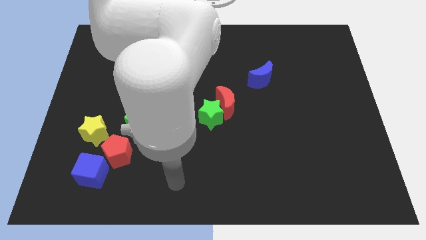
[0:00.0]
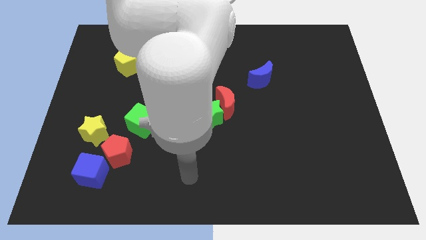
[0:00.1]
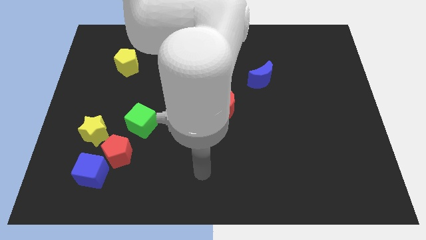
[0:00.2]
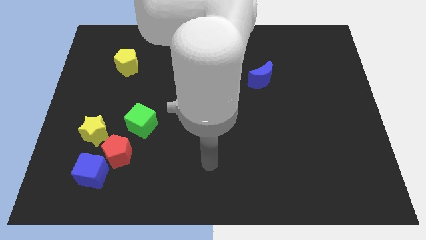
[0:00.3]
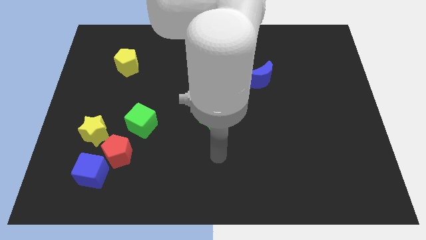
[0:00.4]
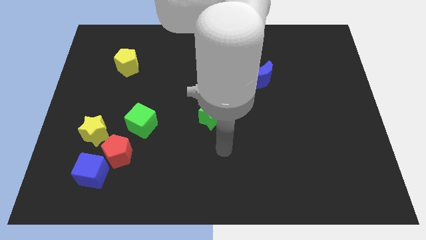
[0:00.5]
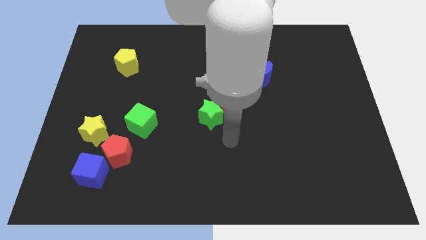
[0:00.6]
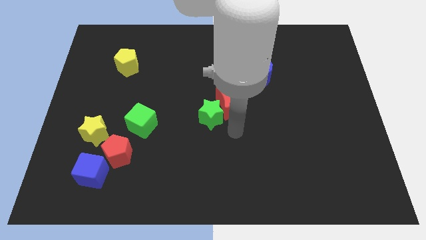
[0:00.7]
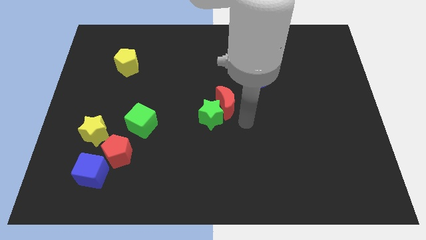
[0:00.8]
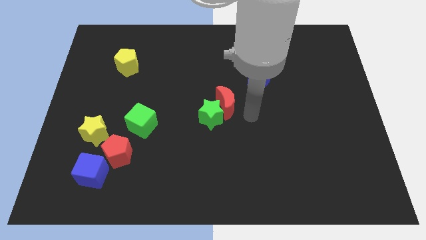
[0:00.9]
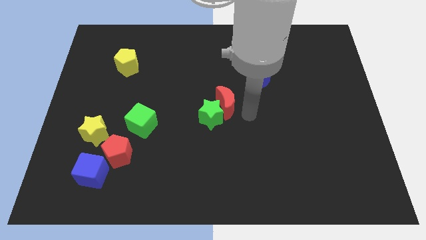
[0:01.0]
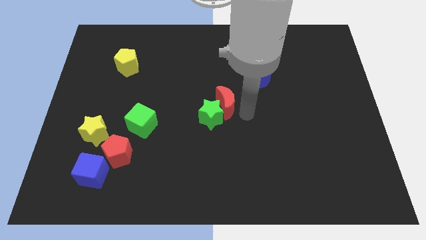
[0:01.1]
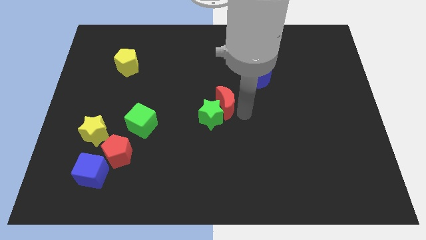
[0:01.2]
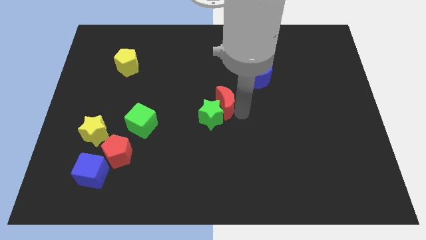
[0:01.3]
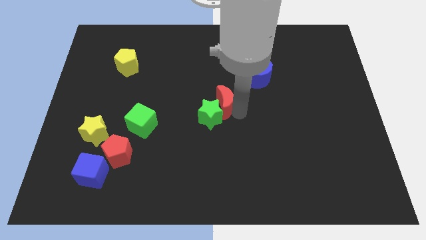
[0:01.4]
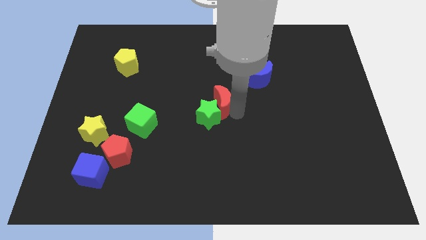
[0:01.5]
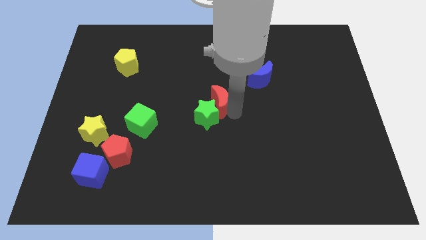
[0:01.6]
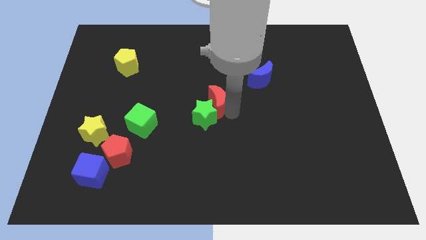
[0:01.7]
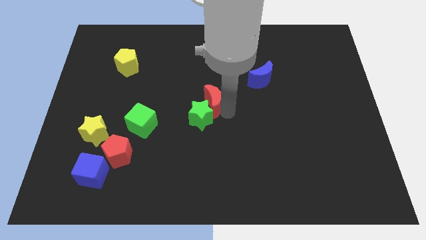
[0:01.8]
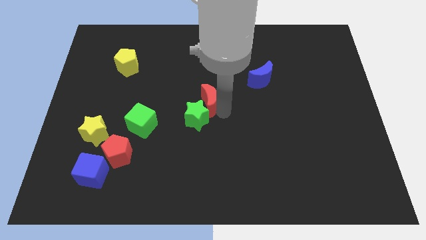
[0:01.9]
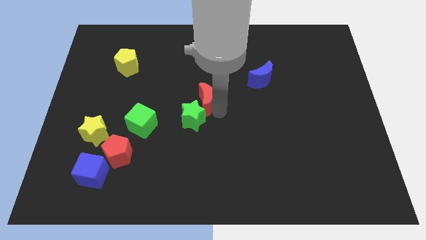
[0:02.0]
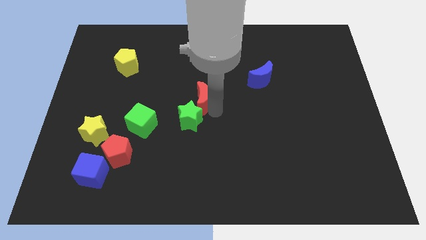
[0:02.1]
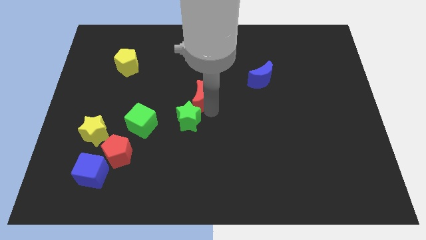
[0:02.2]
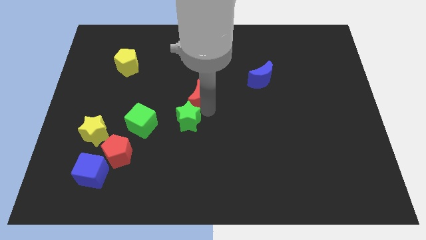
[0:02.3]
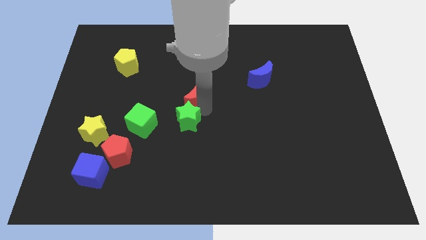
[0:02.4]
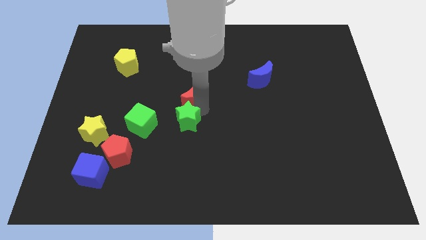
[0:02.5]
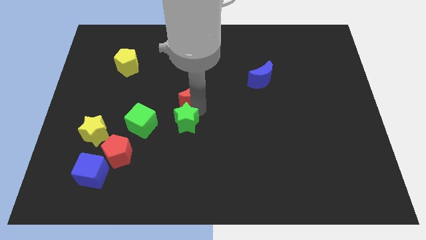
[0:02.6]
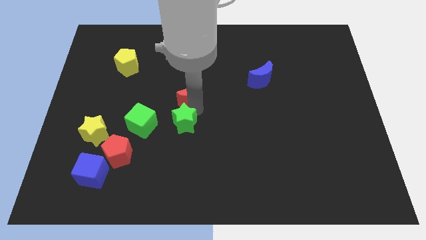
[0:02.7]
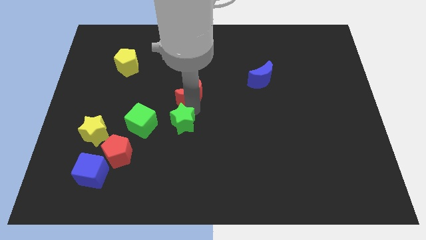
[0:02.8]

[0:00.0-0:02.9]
move the red moon a little bit upwards and then to the left

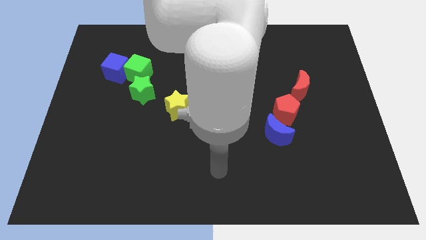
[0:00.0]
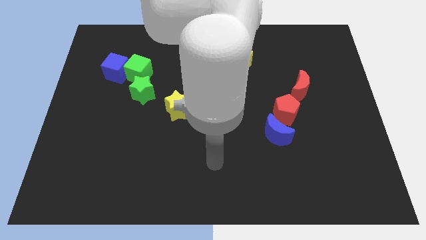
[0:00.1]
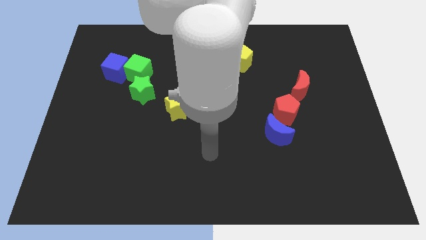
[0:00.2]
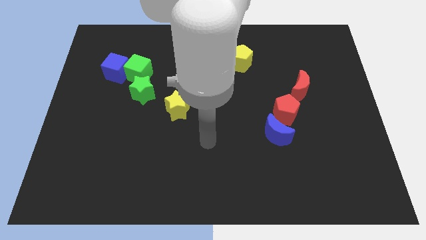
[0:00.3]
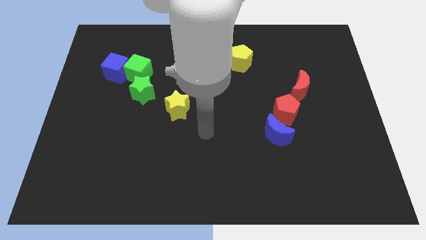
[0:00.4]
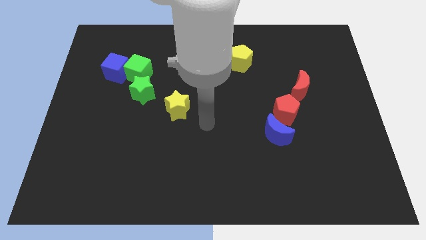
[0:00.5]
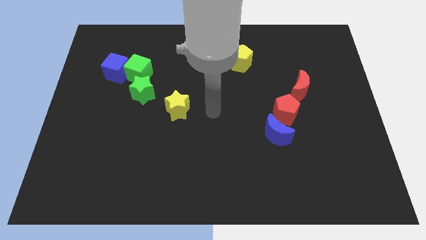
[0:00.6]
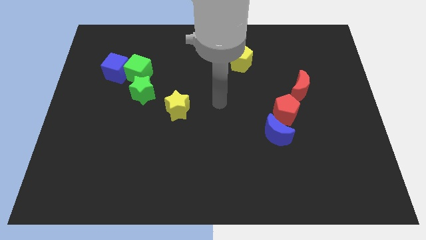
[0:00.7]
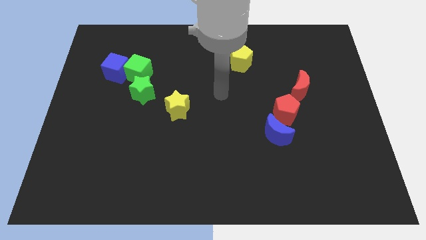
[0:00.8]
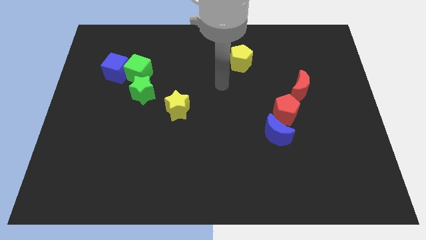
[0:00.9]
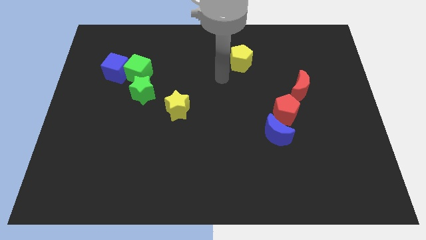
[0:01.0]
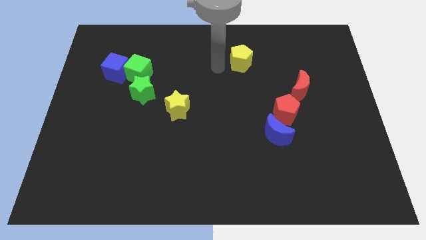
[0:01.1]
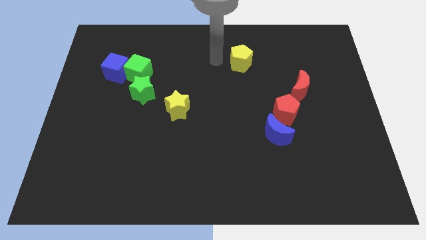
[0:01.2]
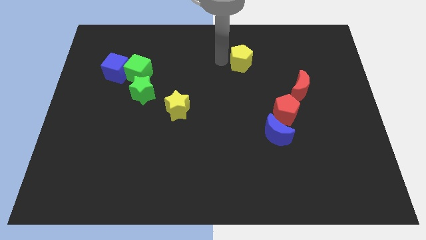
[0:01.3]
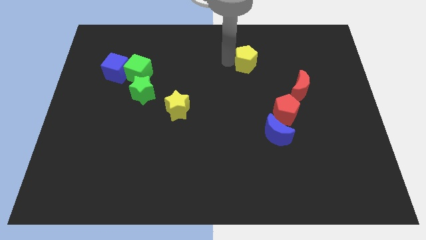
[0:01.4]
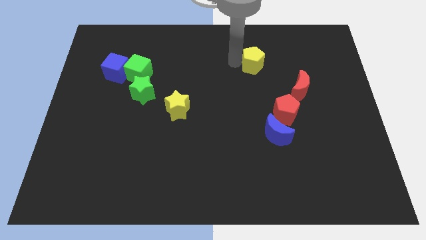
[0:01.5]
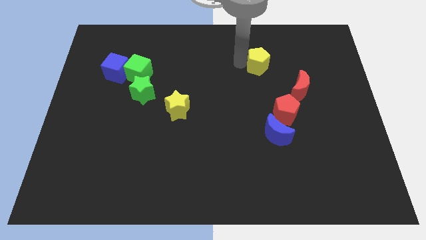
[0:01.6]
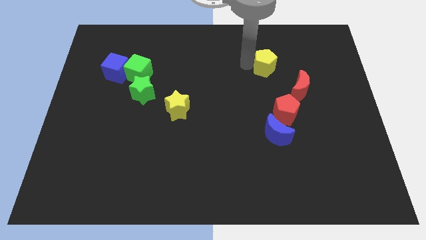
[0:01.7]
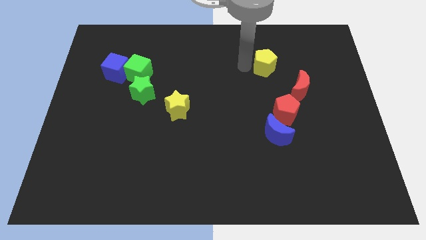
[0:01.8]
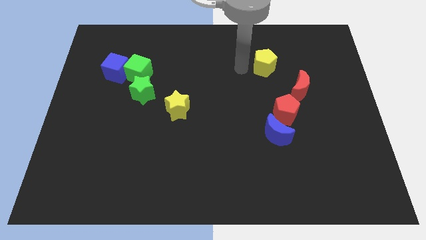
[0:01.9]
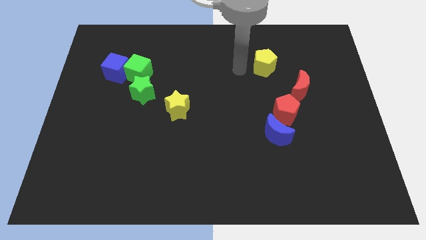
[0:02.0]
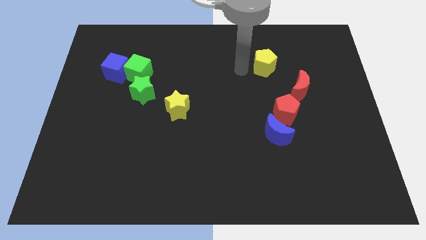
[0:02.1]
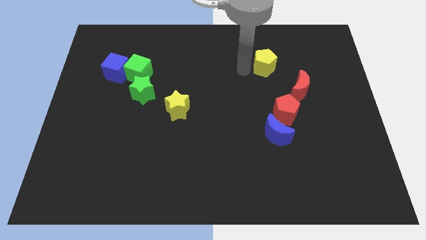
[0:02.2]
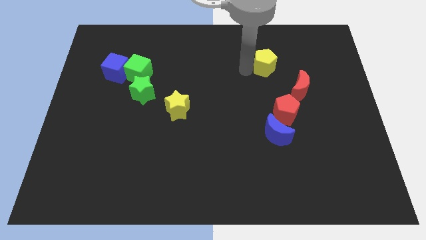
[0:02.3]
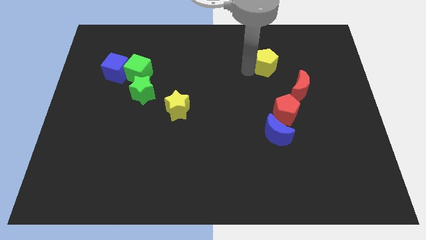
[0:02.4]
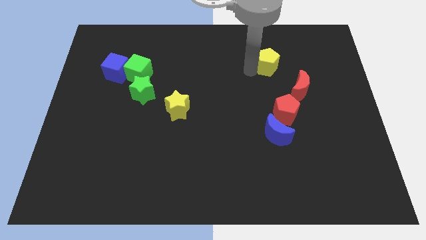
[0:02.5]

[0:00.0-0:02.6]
move the yellow pentagon a little bit to the right

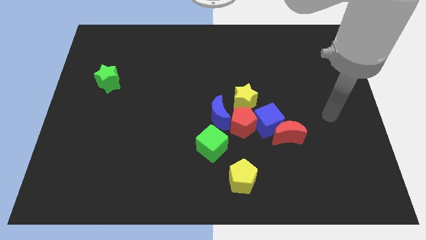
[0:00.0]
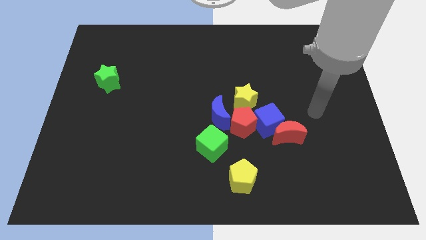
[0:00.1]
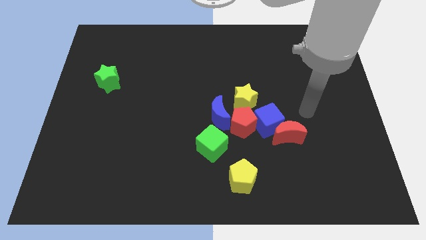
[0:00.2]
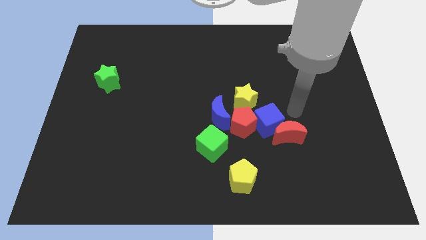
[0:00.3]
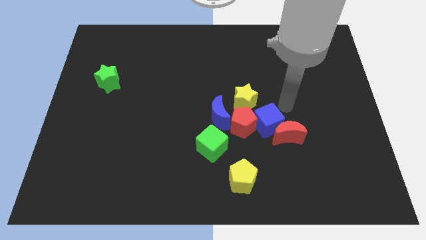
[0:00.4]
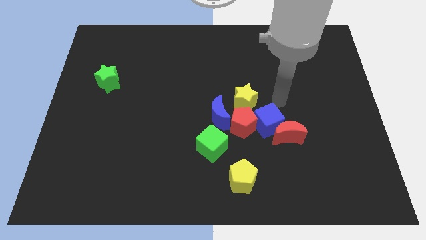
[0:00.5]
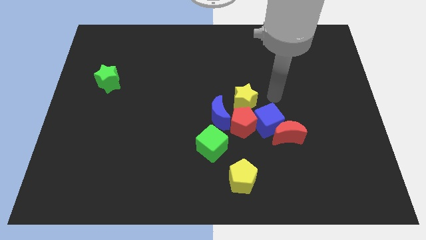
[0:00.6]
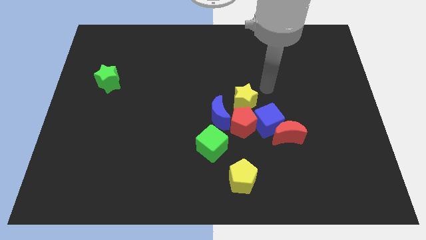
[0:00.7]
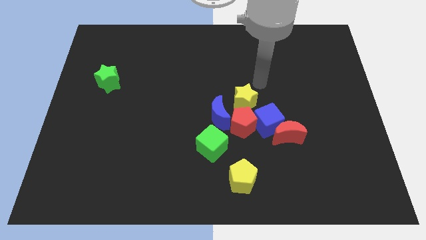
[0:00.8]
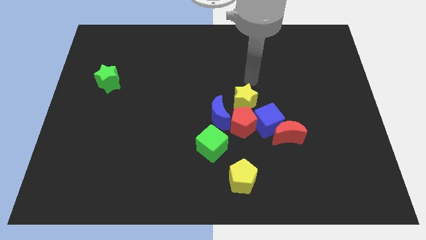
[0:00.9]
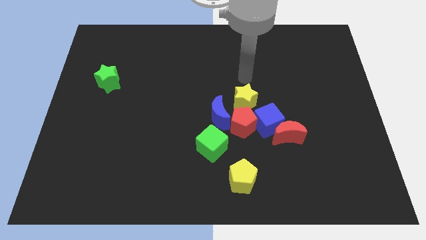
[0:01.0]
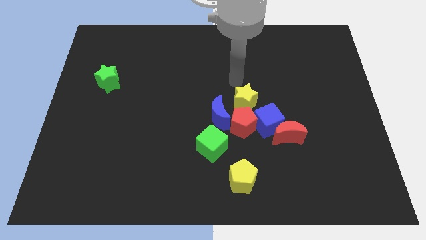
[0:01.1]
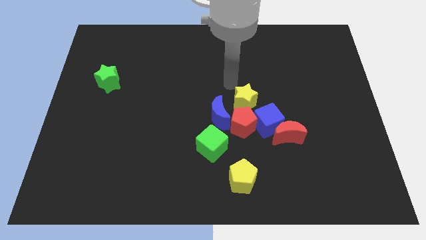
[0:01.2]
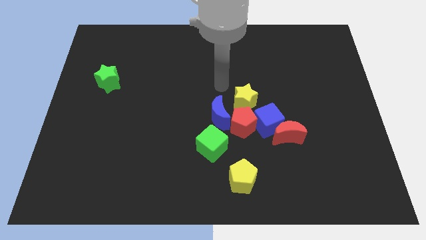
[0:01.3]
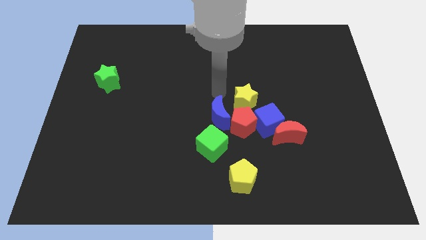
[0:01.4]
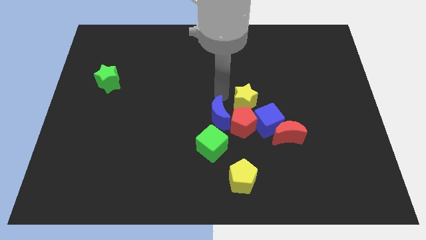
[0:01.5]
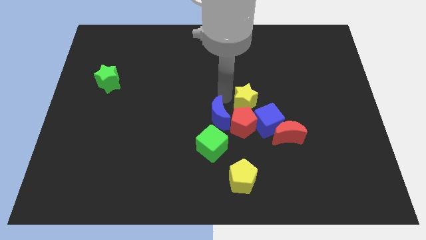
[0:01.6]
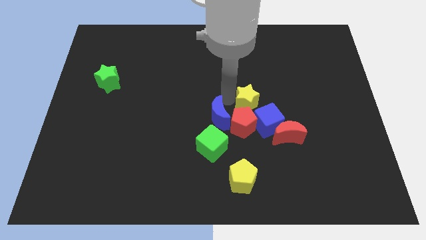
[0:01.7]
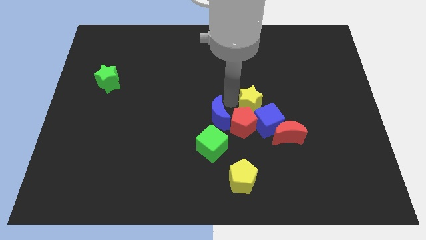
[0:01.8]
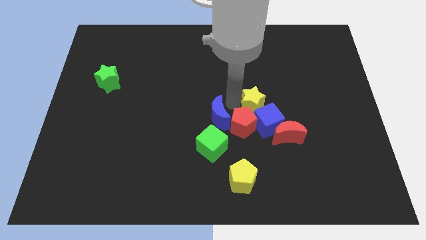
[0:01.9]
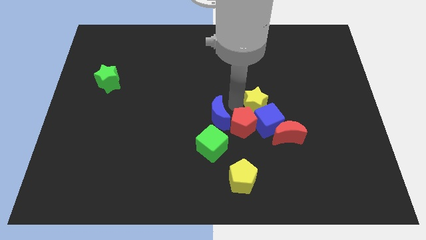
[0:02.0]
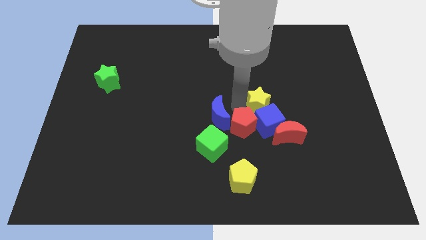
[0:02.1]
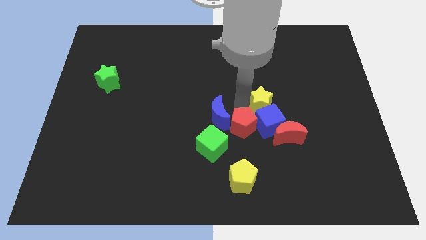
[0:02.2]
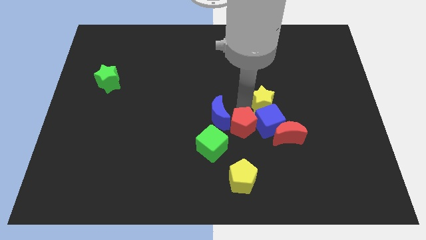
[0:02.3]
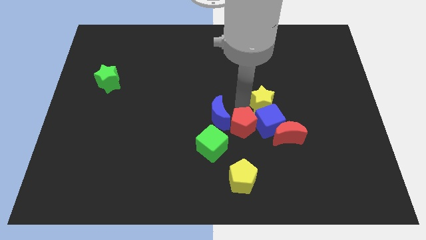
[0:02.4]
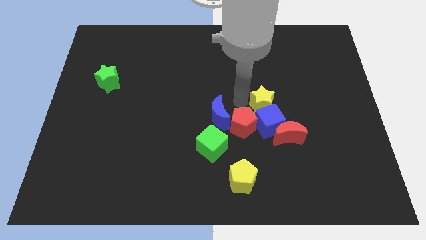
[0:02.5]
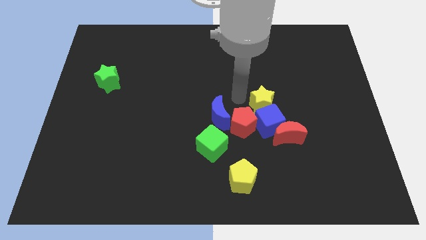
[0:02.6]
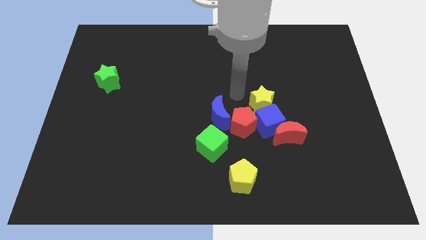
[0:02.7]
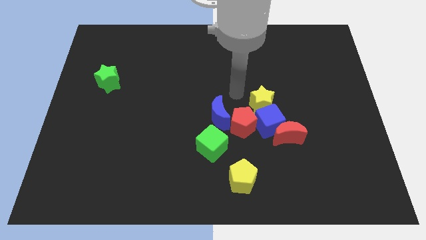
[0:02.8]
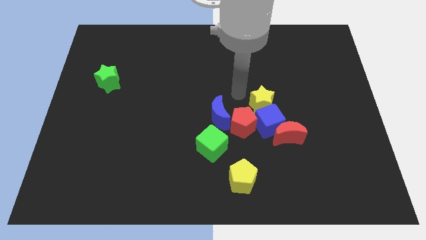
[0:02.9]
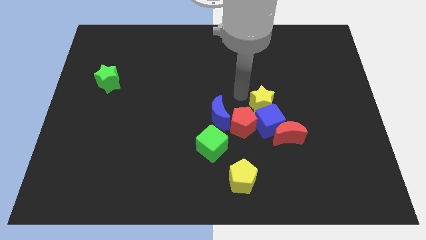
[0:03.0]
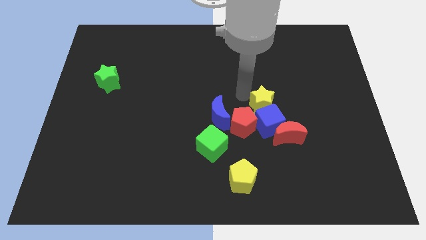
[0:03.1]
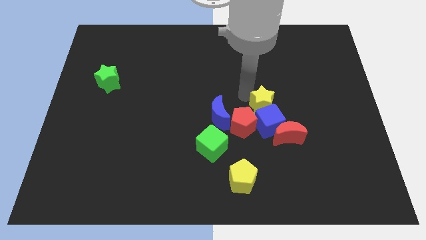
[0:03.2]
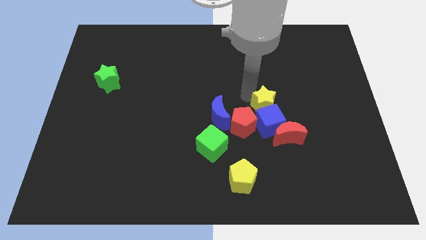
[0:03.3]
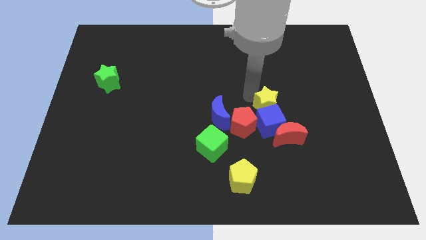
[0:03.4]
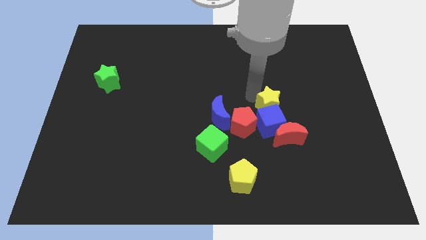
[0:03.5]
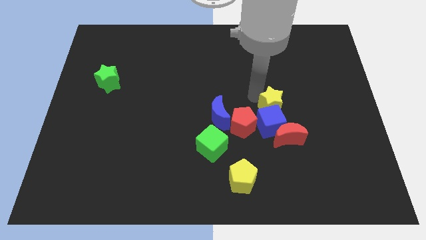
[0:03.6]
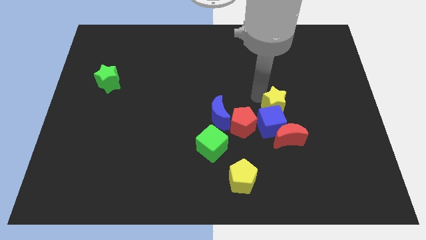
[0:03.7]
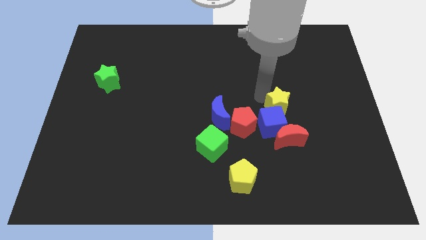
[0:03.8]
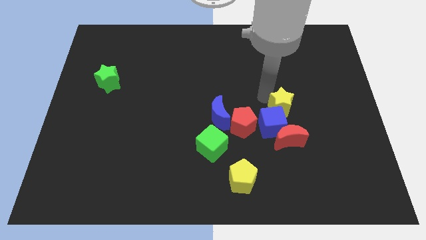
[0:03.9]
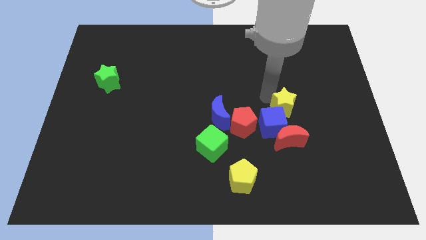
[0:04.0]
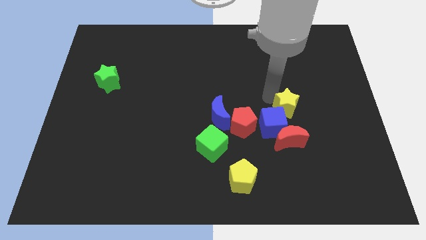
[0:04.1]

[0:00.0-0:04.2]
push the yellow star down and then right slightly
